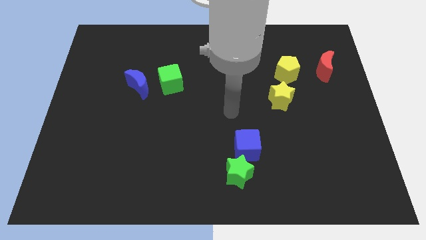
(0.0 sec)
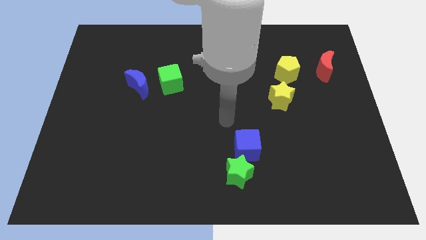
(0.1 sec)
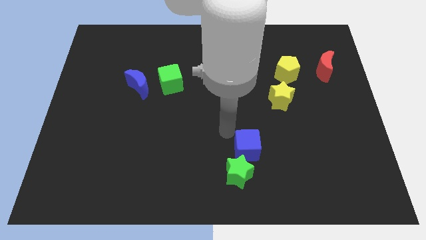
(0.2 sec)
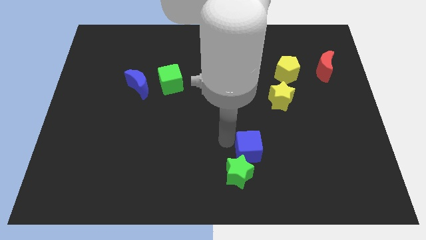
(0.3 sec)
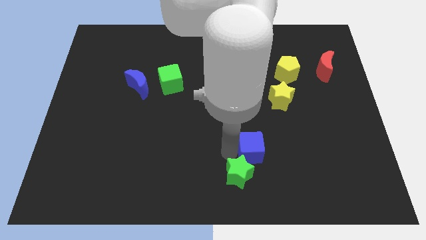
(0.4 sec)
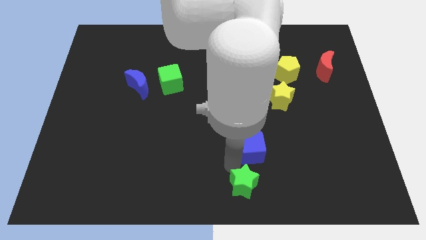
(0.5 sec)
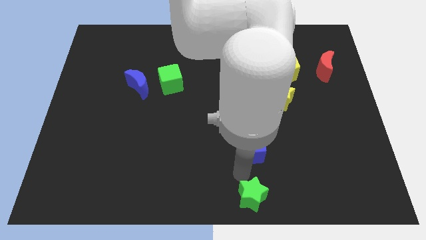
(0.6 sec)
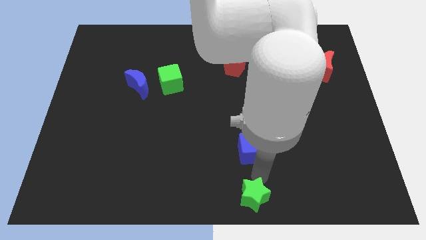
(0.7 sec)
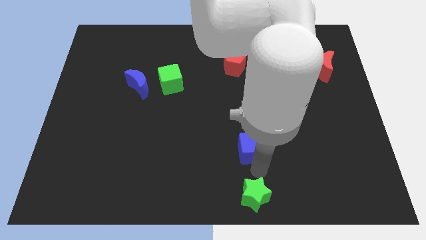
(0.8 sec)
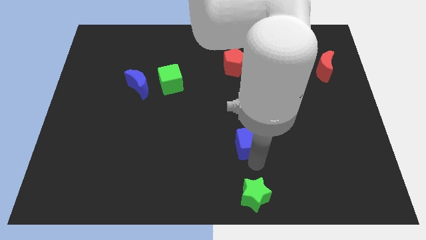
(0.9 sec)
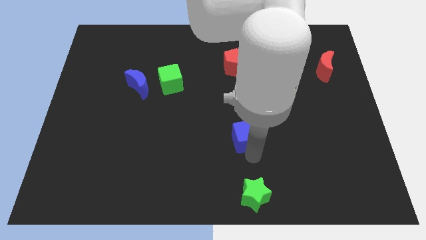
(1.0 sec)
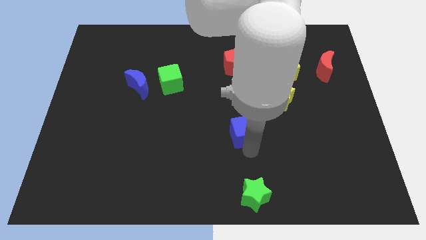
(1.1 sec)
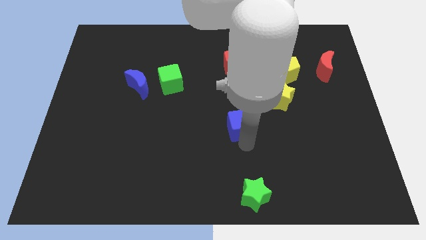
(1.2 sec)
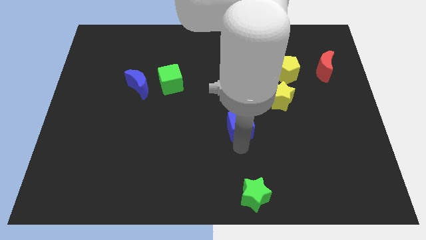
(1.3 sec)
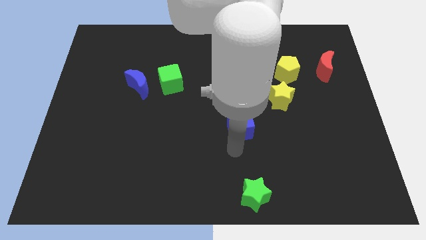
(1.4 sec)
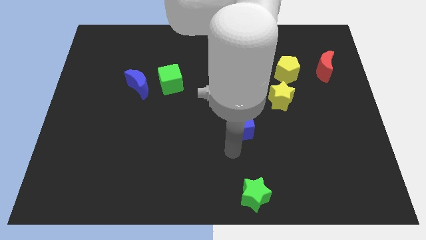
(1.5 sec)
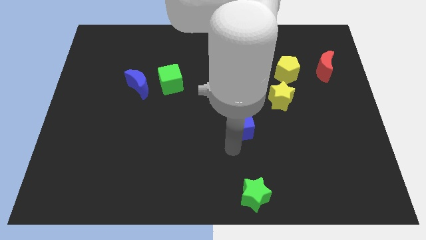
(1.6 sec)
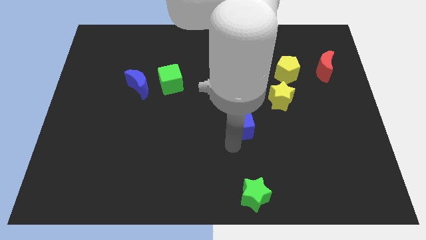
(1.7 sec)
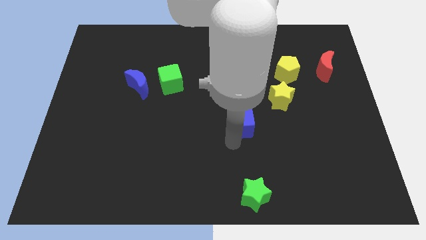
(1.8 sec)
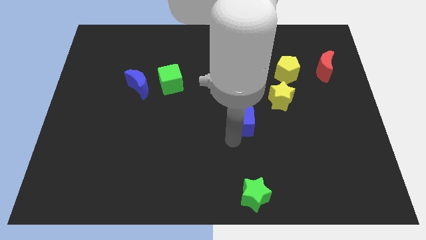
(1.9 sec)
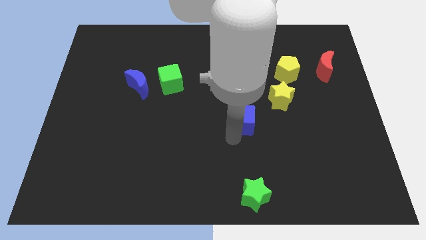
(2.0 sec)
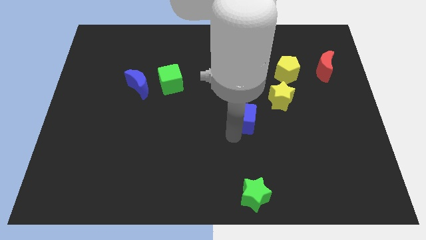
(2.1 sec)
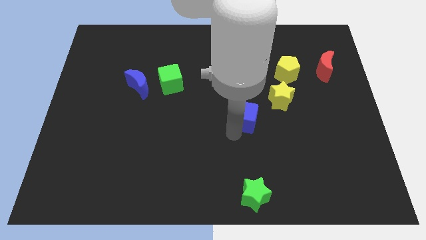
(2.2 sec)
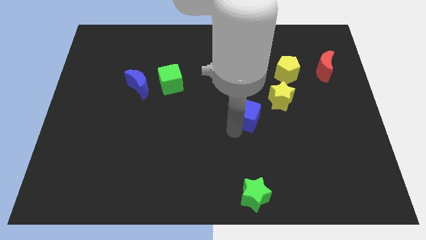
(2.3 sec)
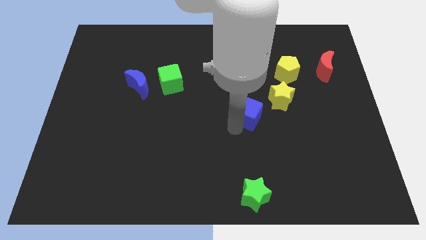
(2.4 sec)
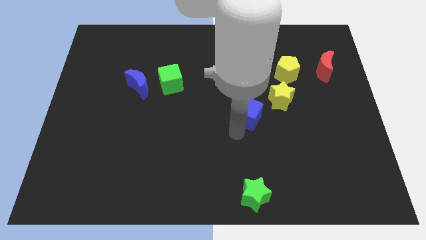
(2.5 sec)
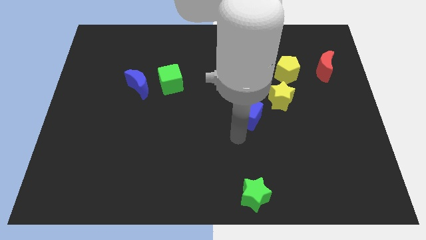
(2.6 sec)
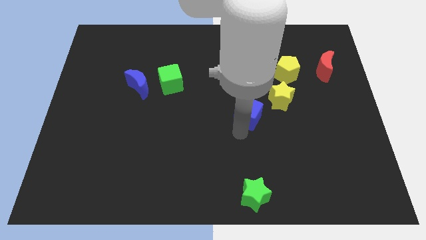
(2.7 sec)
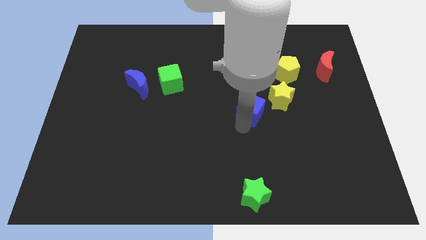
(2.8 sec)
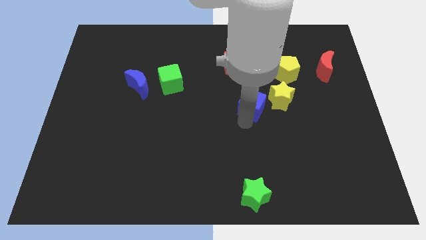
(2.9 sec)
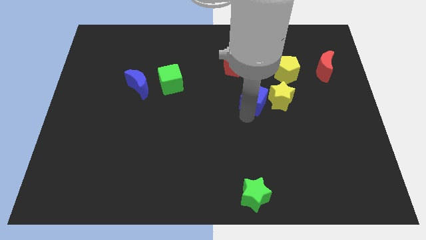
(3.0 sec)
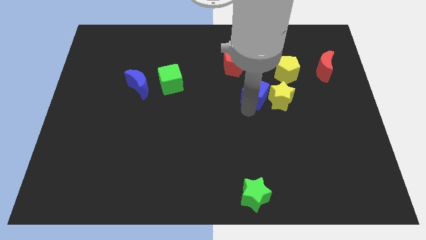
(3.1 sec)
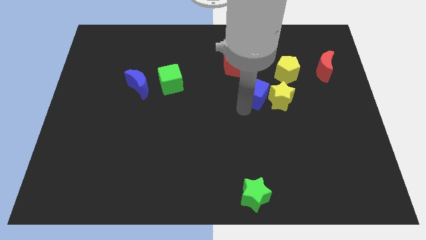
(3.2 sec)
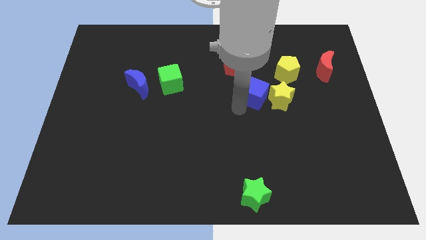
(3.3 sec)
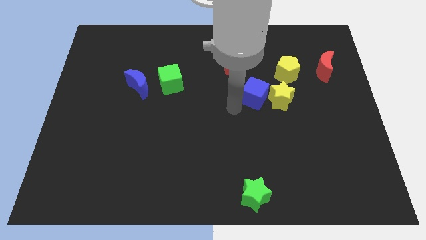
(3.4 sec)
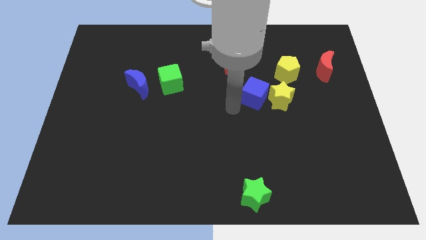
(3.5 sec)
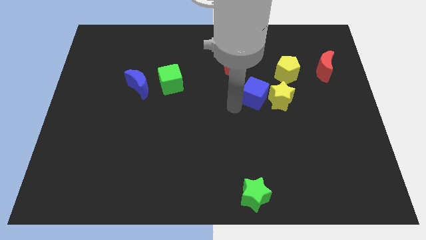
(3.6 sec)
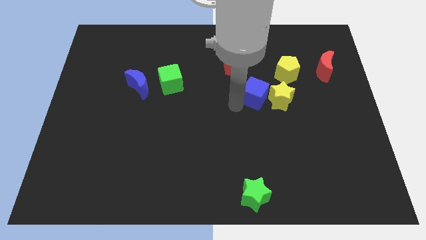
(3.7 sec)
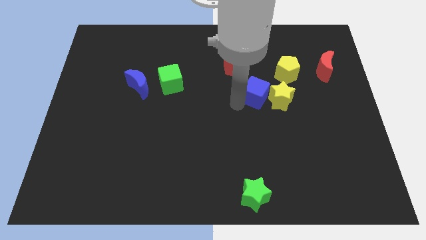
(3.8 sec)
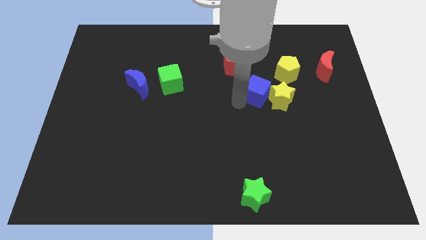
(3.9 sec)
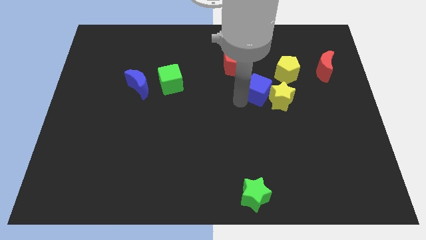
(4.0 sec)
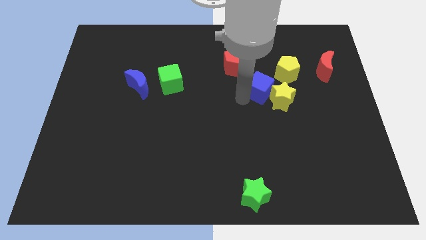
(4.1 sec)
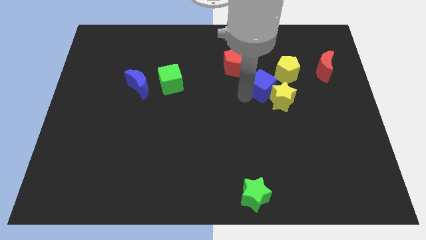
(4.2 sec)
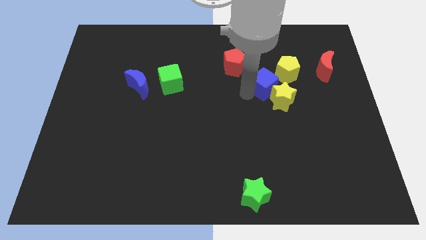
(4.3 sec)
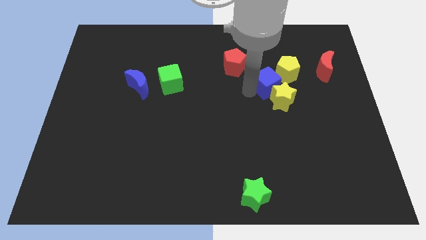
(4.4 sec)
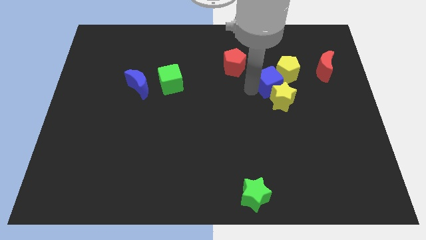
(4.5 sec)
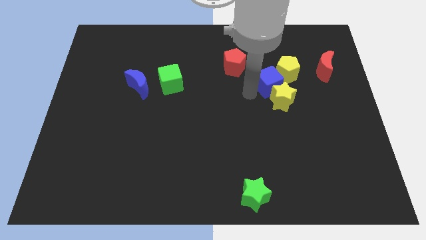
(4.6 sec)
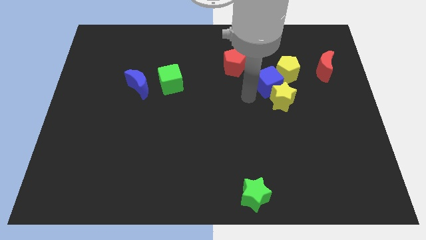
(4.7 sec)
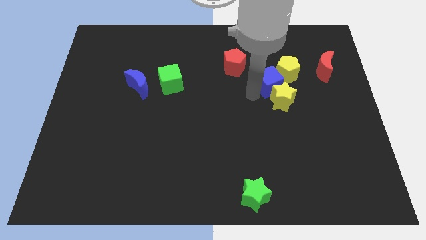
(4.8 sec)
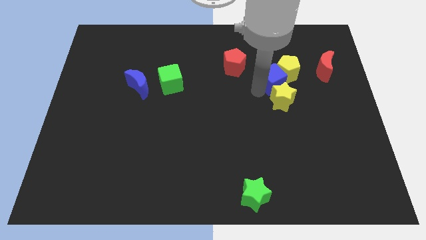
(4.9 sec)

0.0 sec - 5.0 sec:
slide the blue cube towards the yellow pentagon

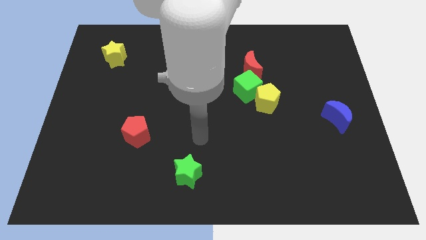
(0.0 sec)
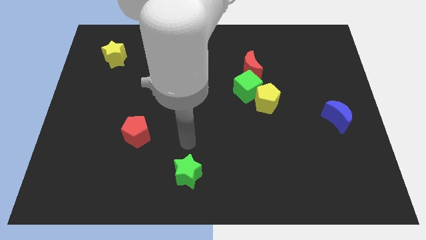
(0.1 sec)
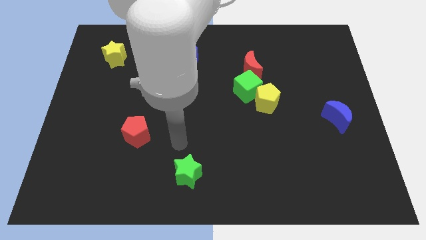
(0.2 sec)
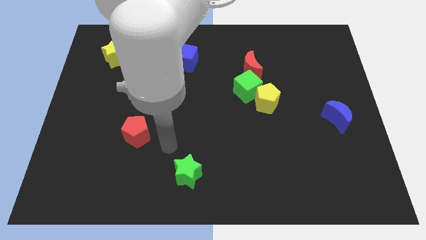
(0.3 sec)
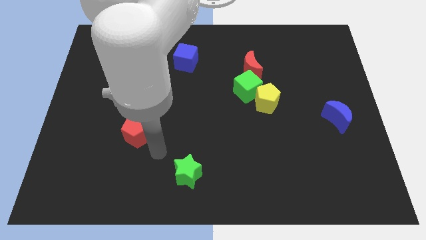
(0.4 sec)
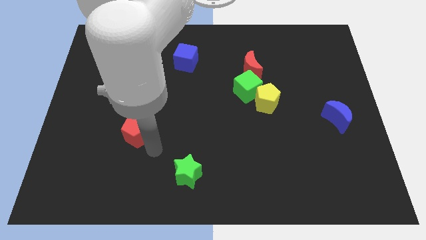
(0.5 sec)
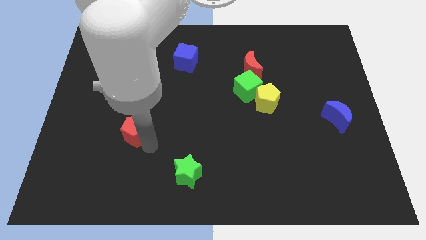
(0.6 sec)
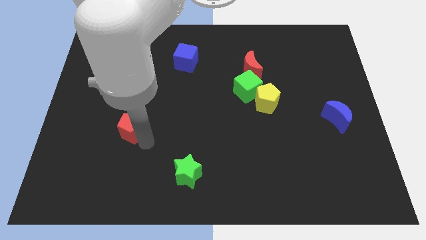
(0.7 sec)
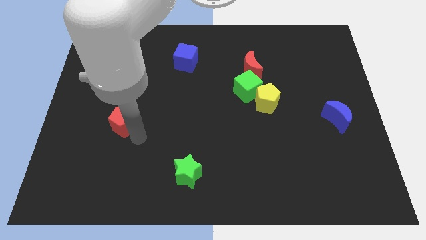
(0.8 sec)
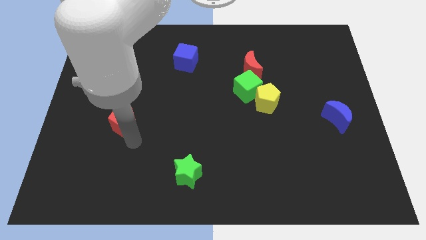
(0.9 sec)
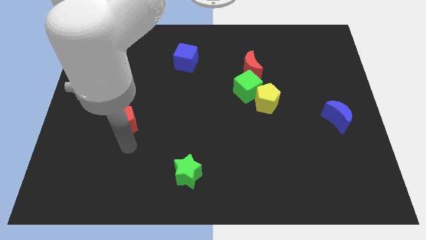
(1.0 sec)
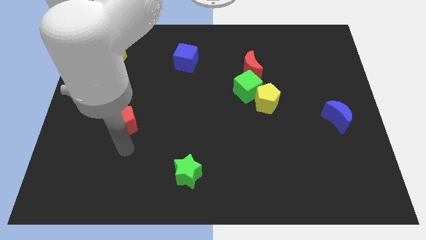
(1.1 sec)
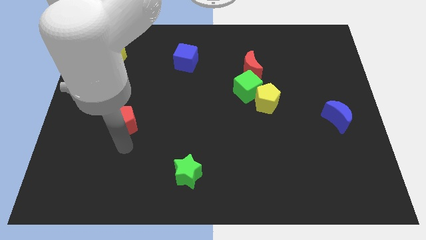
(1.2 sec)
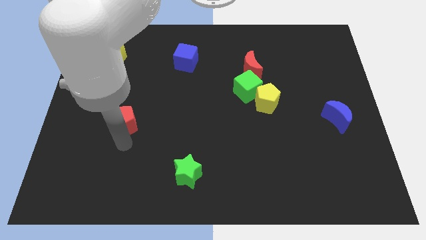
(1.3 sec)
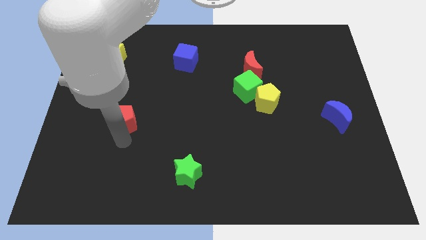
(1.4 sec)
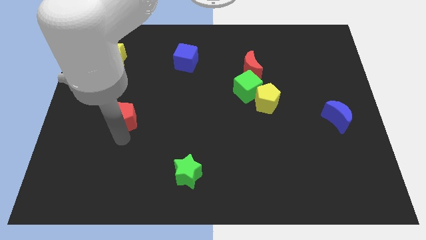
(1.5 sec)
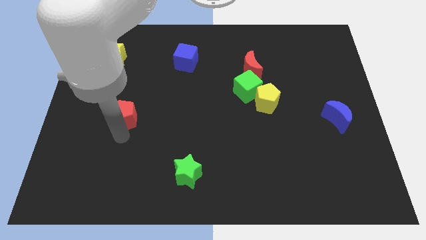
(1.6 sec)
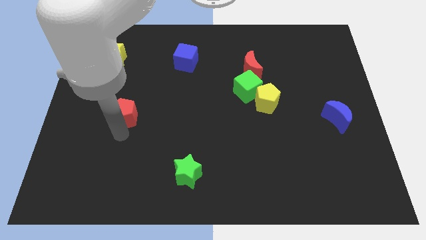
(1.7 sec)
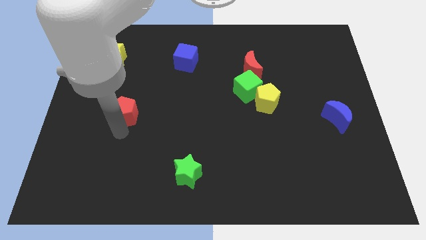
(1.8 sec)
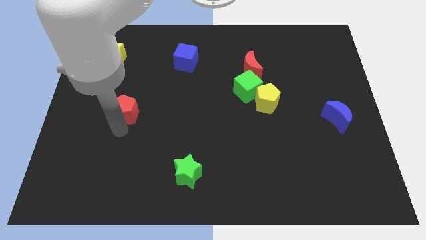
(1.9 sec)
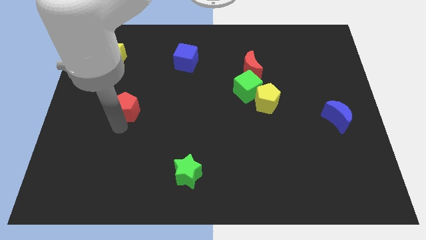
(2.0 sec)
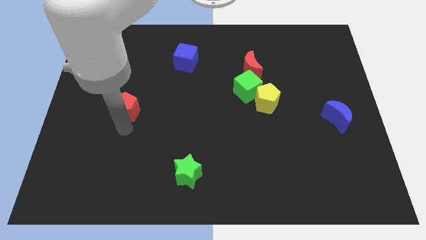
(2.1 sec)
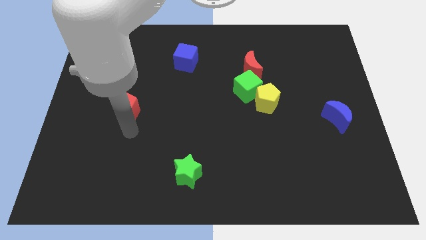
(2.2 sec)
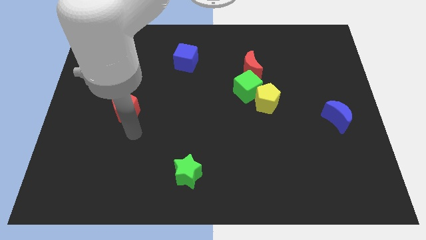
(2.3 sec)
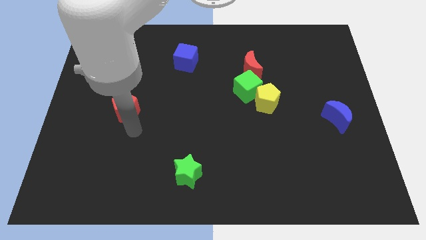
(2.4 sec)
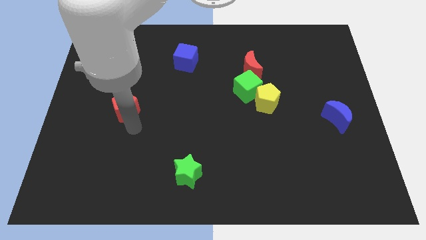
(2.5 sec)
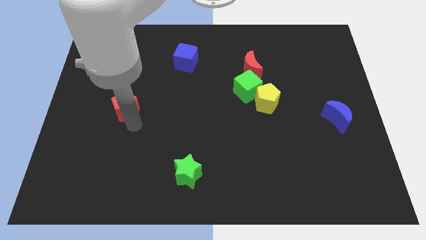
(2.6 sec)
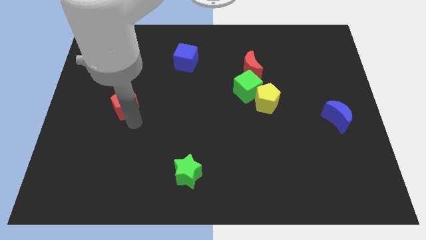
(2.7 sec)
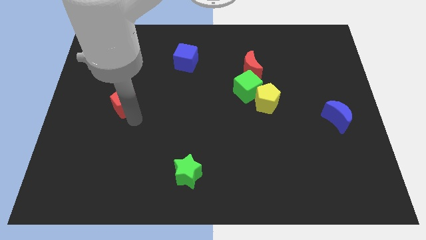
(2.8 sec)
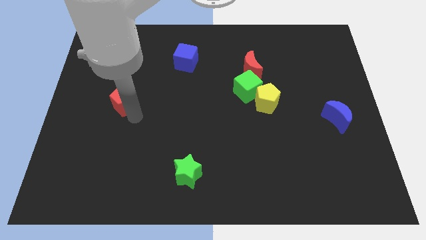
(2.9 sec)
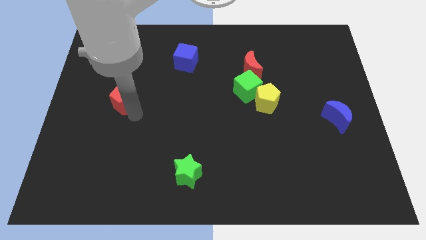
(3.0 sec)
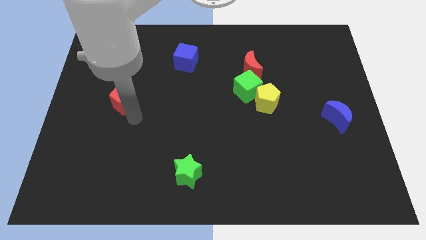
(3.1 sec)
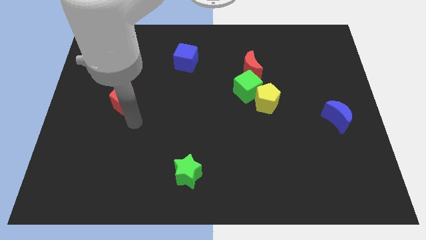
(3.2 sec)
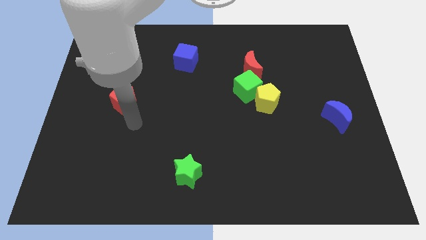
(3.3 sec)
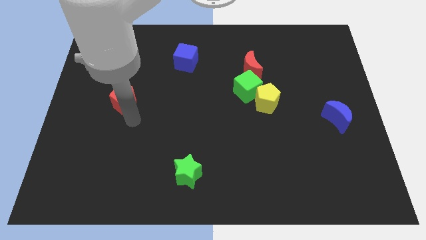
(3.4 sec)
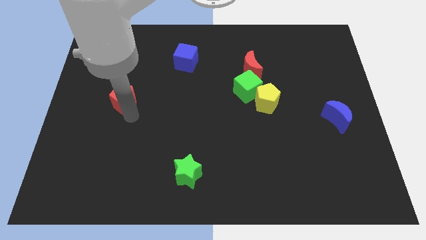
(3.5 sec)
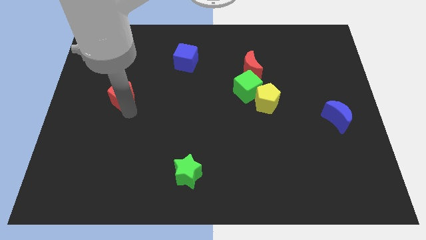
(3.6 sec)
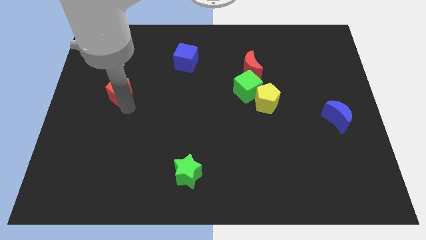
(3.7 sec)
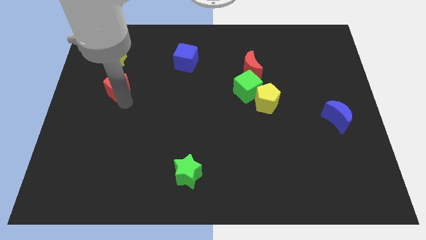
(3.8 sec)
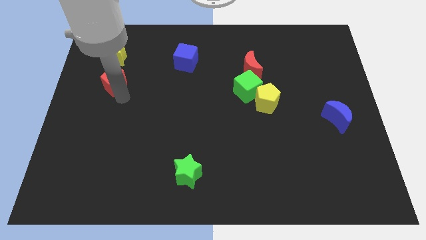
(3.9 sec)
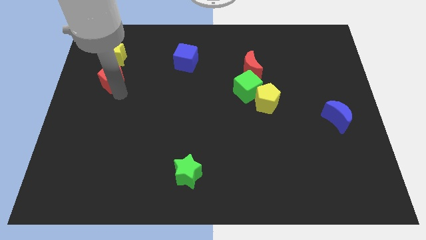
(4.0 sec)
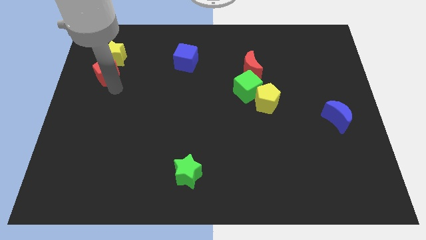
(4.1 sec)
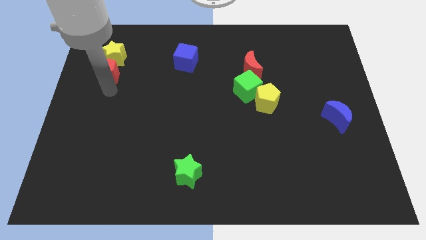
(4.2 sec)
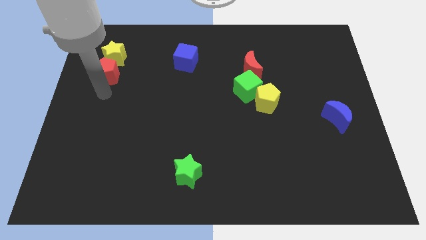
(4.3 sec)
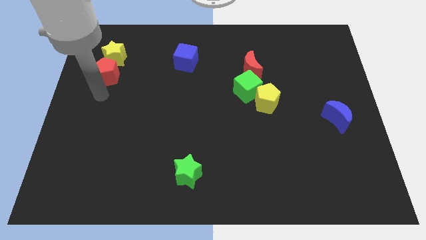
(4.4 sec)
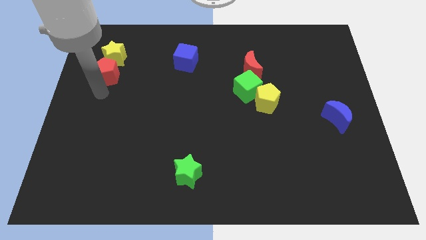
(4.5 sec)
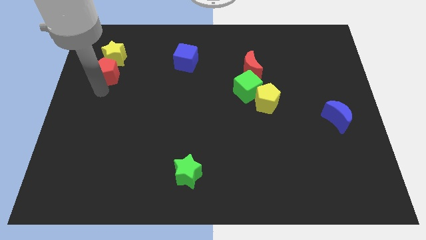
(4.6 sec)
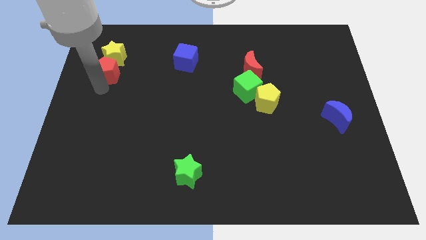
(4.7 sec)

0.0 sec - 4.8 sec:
push the red pentagon next to the yellow star
